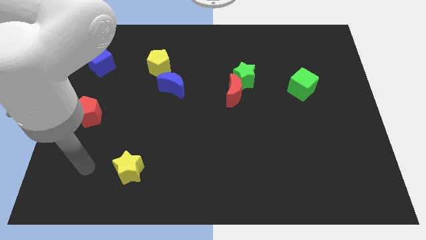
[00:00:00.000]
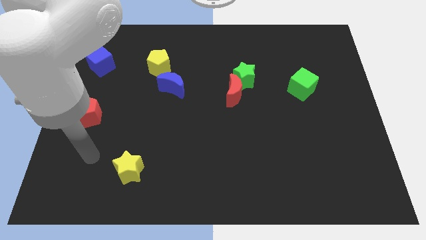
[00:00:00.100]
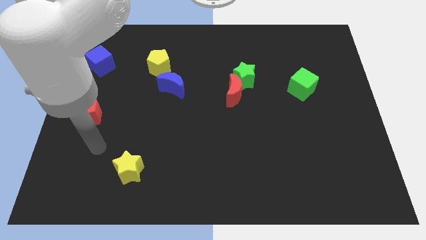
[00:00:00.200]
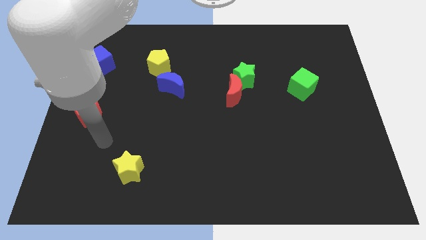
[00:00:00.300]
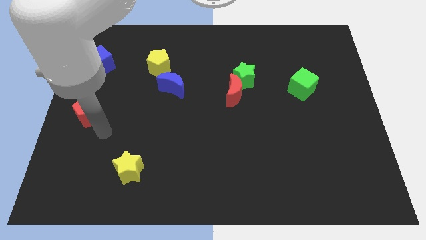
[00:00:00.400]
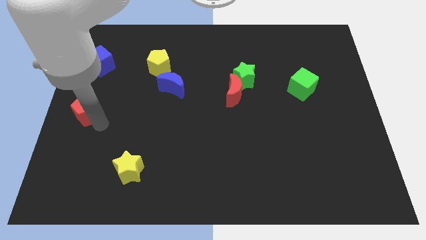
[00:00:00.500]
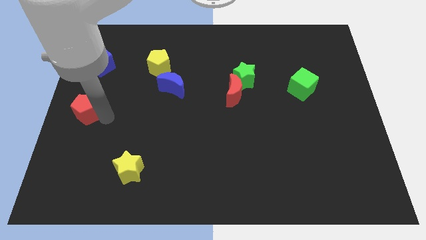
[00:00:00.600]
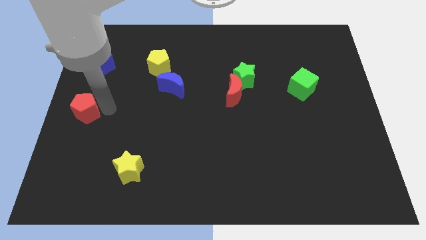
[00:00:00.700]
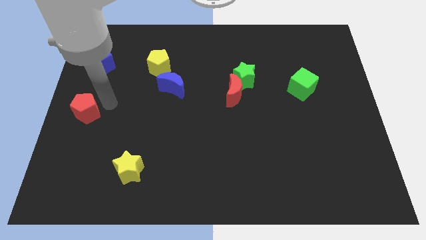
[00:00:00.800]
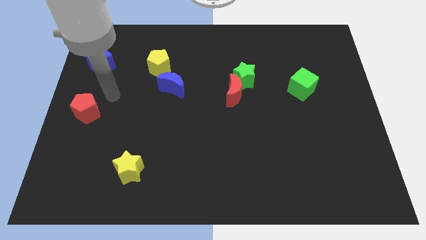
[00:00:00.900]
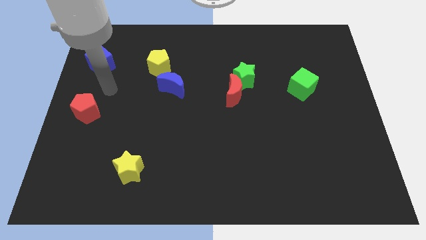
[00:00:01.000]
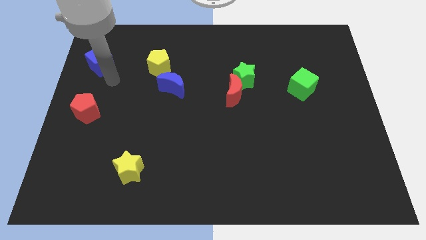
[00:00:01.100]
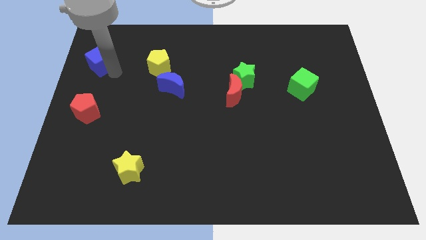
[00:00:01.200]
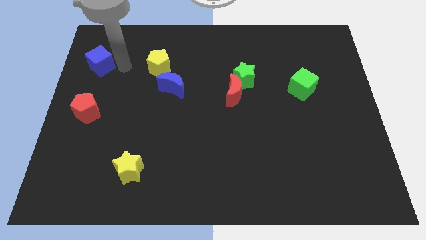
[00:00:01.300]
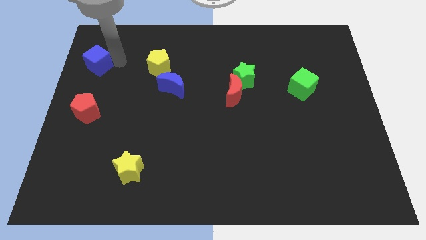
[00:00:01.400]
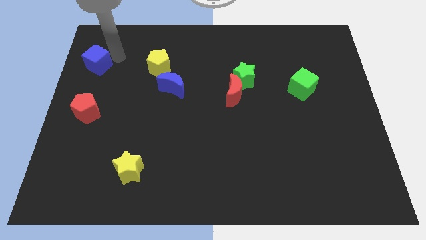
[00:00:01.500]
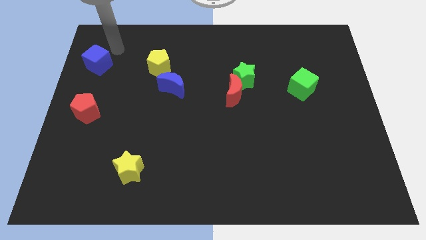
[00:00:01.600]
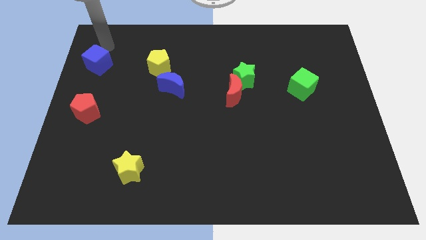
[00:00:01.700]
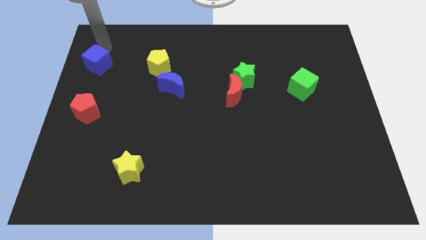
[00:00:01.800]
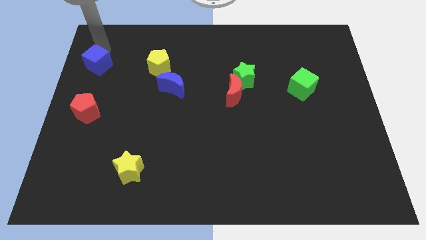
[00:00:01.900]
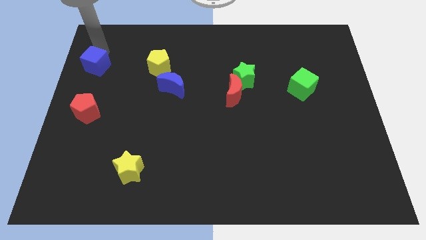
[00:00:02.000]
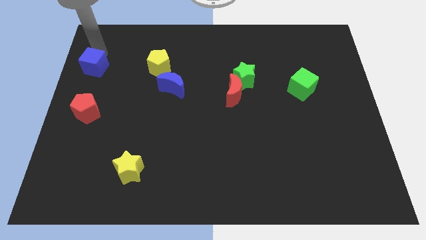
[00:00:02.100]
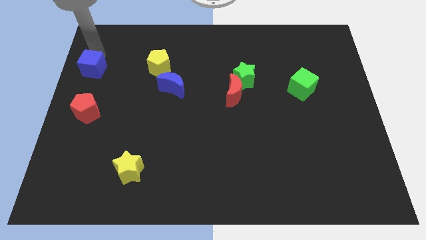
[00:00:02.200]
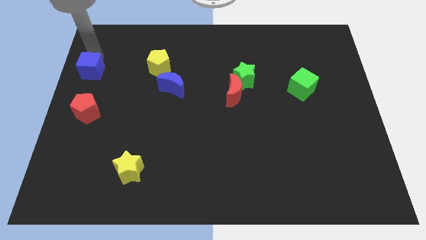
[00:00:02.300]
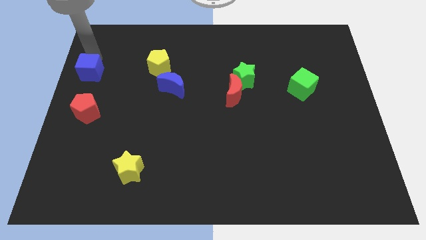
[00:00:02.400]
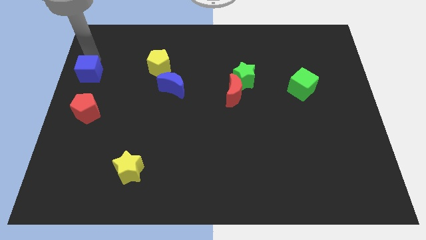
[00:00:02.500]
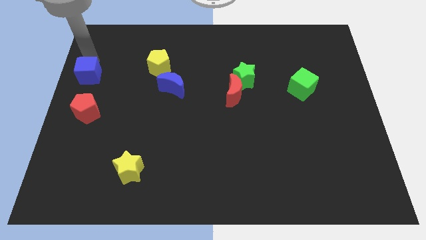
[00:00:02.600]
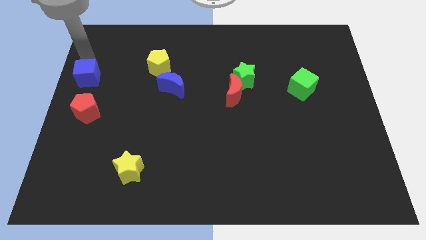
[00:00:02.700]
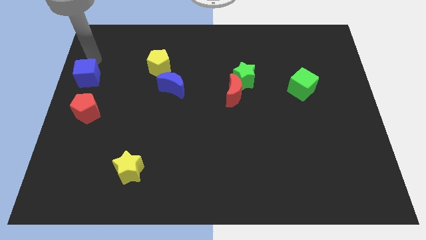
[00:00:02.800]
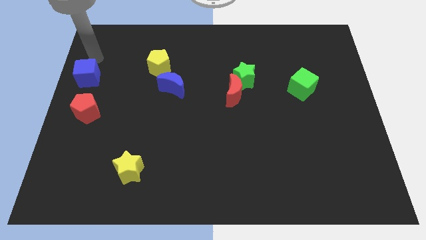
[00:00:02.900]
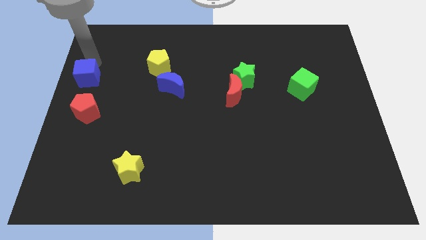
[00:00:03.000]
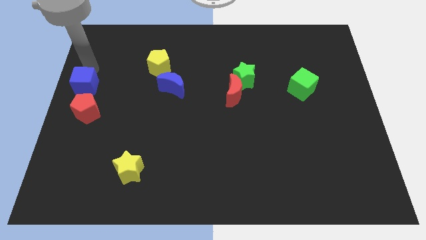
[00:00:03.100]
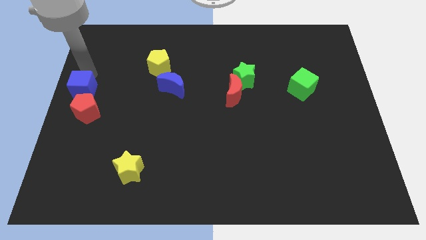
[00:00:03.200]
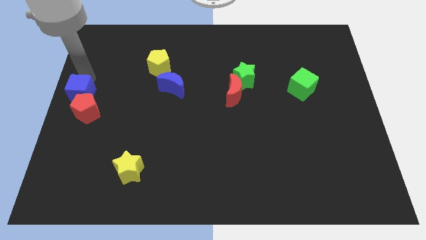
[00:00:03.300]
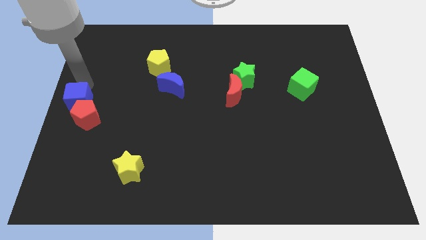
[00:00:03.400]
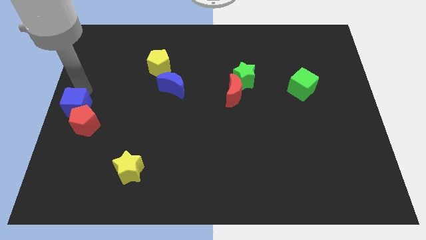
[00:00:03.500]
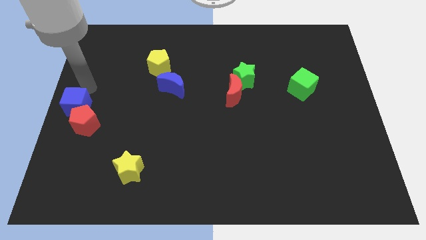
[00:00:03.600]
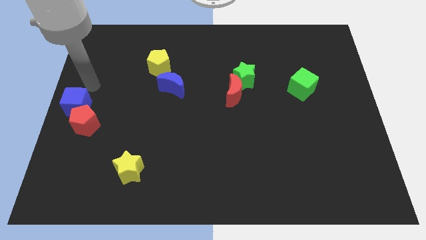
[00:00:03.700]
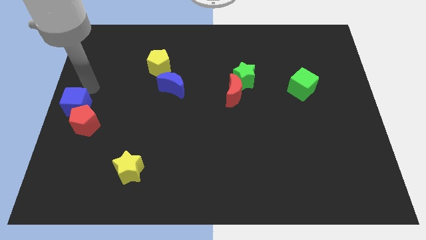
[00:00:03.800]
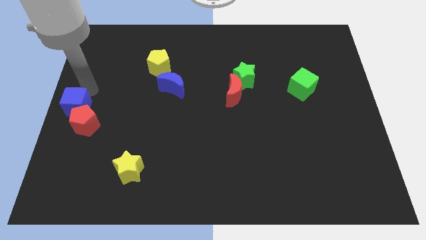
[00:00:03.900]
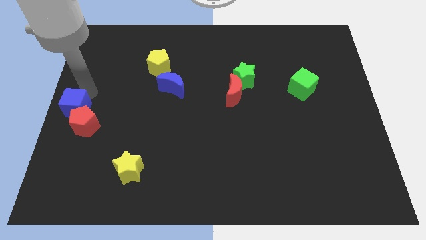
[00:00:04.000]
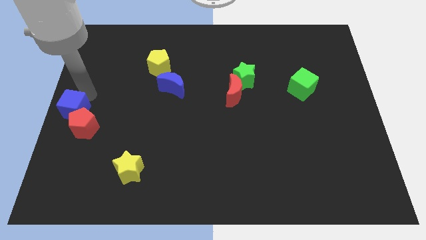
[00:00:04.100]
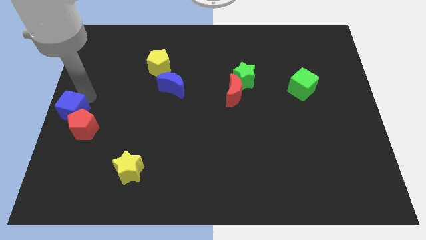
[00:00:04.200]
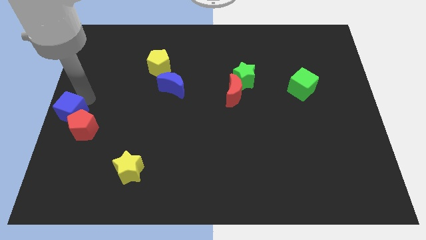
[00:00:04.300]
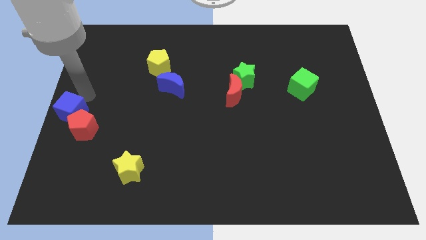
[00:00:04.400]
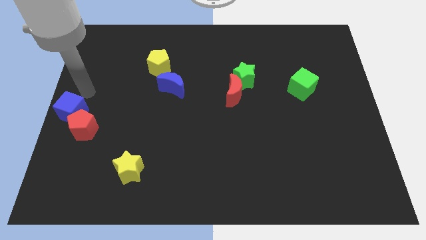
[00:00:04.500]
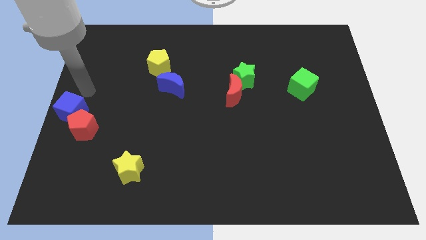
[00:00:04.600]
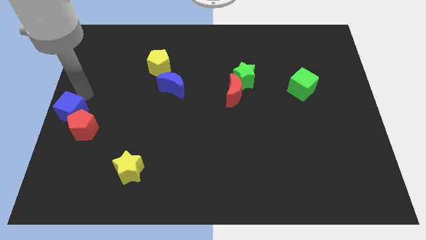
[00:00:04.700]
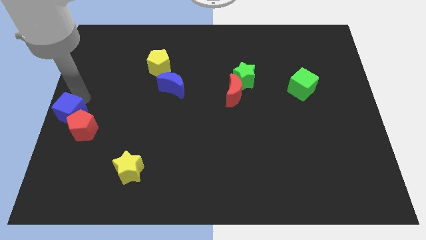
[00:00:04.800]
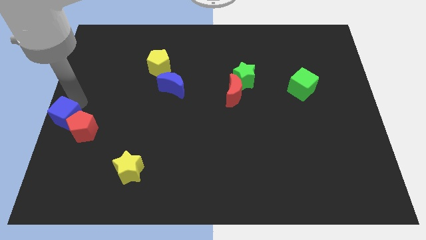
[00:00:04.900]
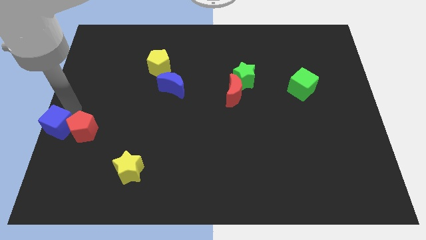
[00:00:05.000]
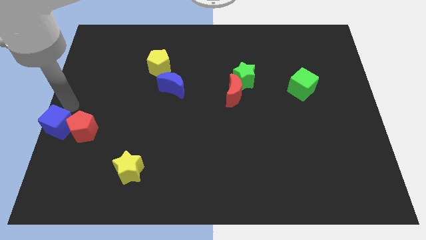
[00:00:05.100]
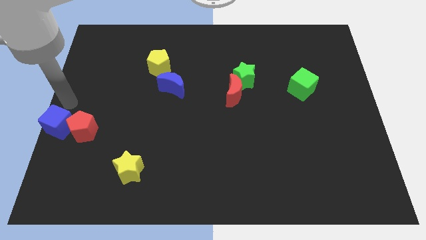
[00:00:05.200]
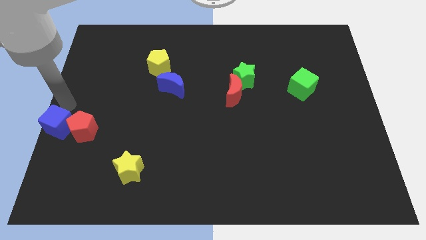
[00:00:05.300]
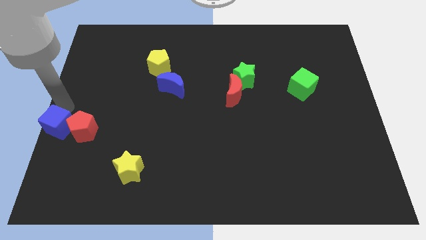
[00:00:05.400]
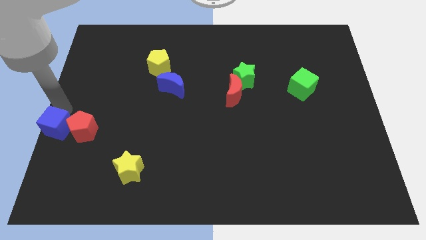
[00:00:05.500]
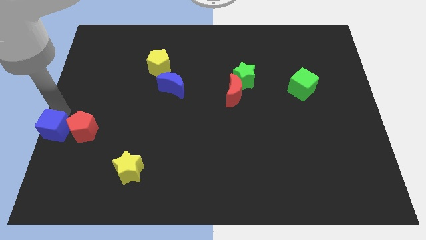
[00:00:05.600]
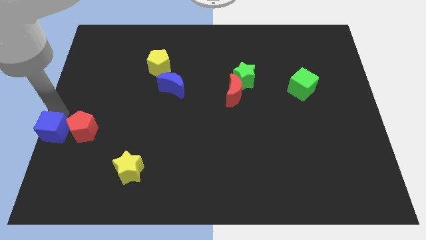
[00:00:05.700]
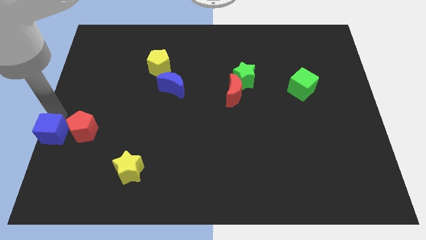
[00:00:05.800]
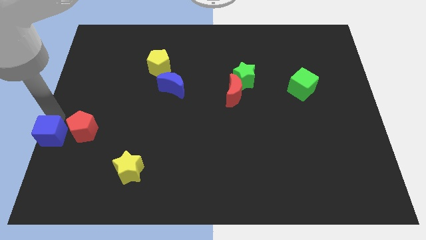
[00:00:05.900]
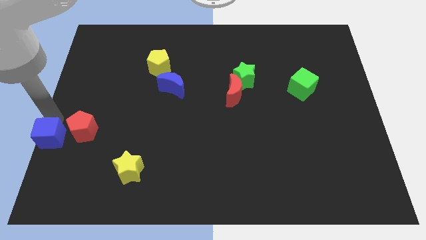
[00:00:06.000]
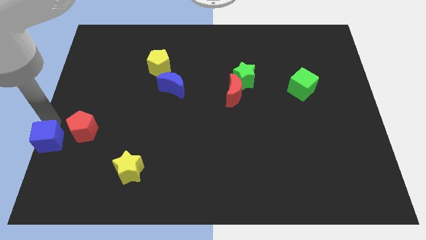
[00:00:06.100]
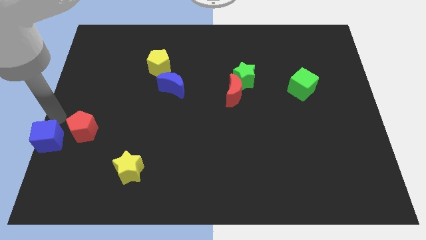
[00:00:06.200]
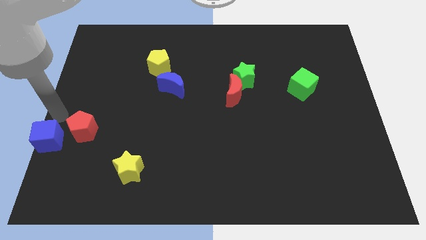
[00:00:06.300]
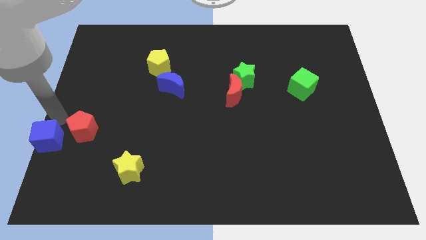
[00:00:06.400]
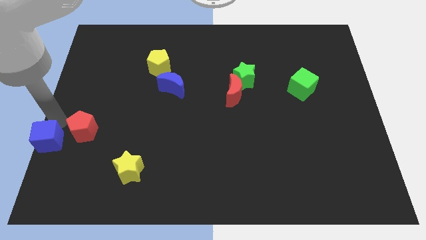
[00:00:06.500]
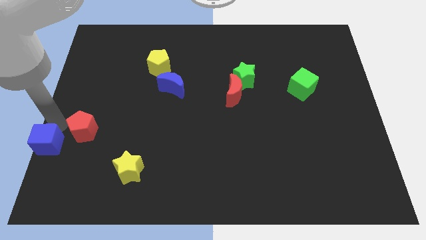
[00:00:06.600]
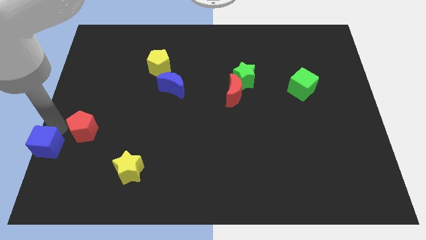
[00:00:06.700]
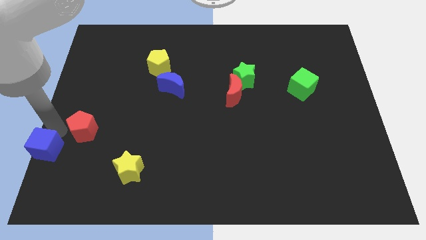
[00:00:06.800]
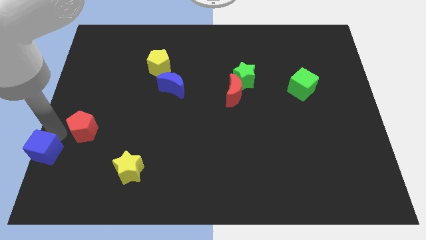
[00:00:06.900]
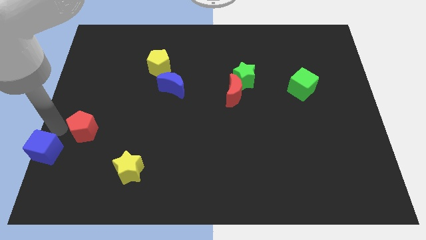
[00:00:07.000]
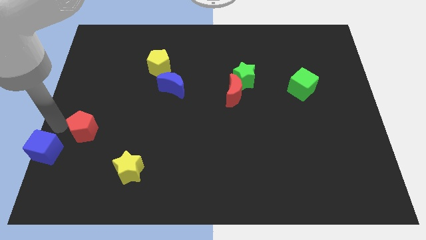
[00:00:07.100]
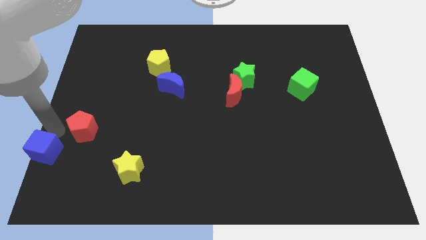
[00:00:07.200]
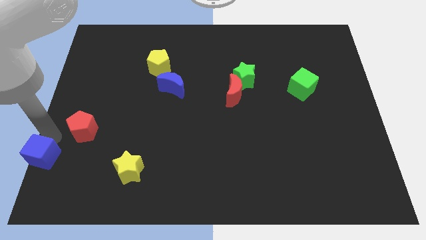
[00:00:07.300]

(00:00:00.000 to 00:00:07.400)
move the blue cube to the bottom left corner
